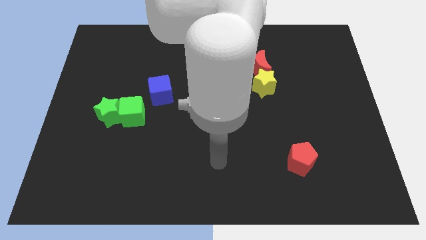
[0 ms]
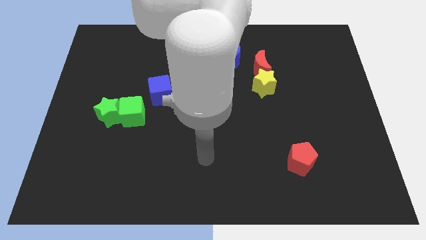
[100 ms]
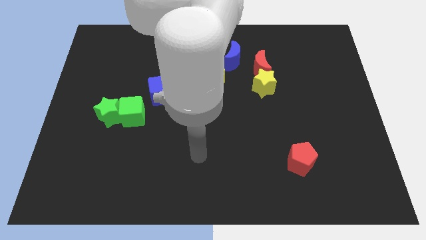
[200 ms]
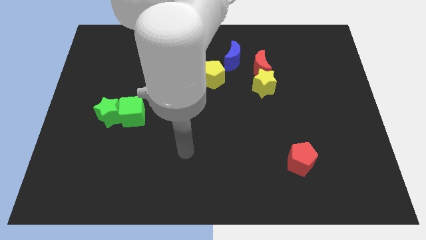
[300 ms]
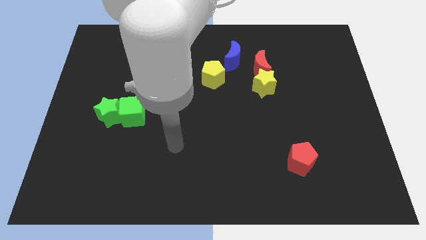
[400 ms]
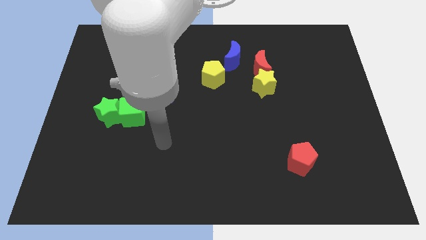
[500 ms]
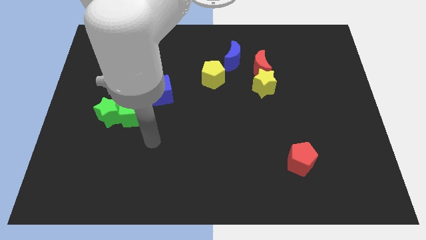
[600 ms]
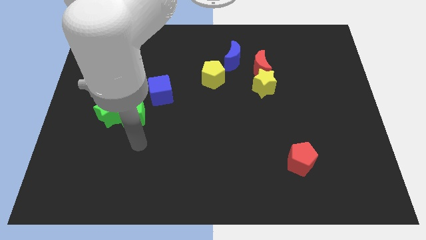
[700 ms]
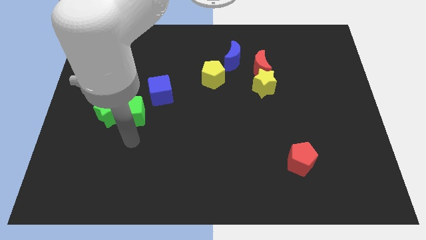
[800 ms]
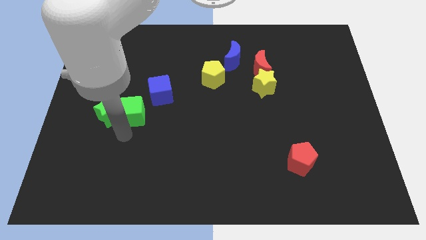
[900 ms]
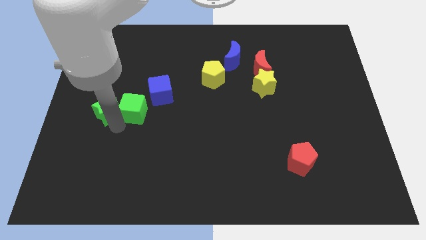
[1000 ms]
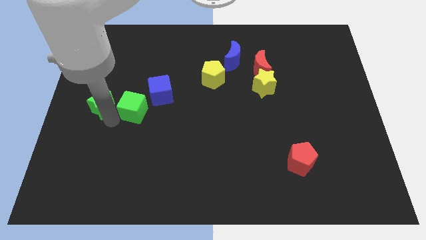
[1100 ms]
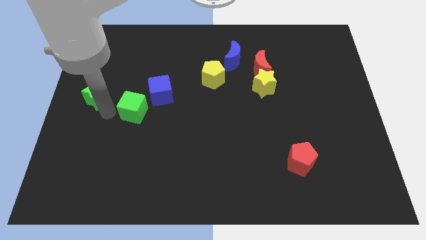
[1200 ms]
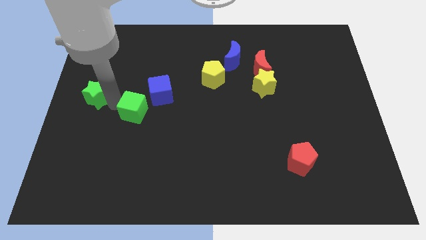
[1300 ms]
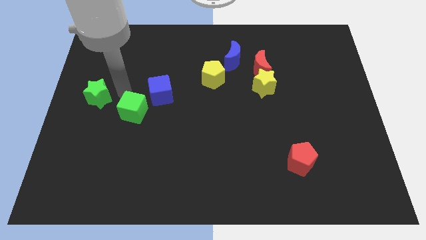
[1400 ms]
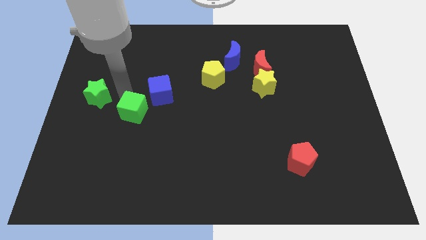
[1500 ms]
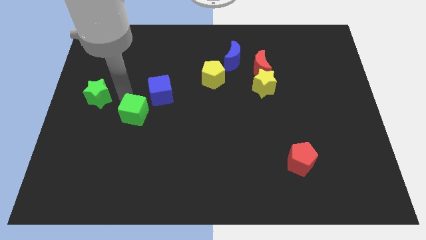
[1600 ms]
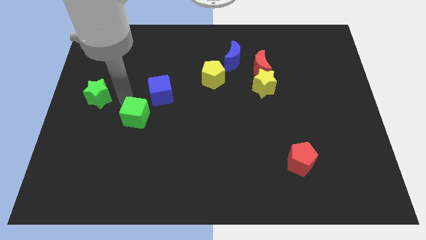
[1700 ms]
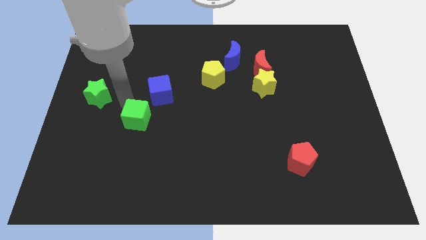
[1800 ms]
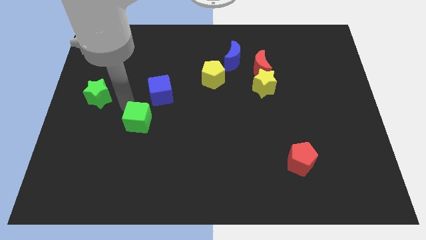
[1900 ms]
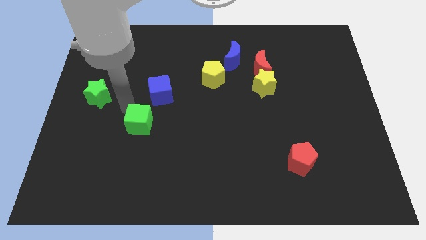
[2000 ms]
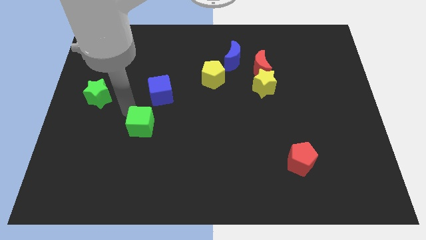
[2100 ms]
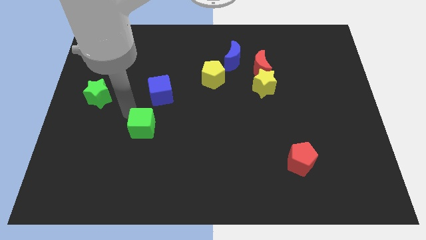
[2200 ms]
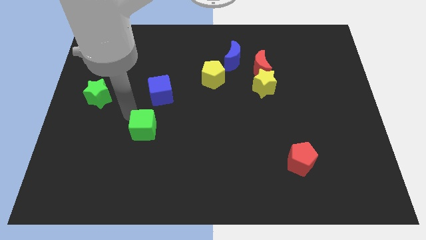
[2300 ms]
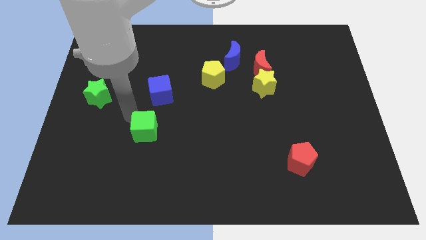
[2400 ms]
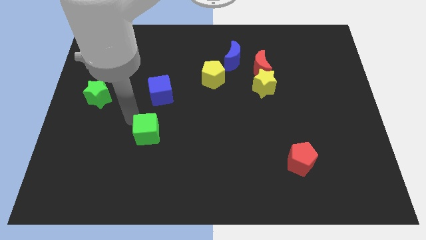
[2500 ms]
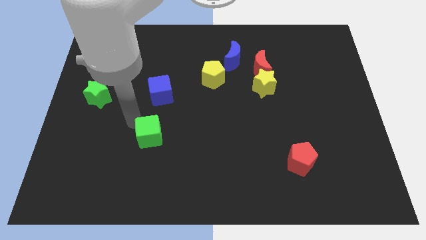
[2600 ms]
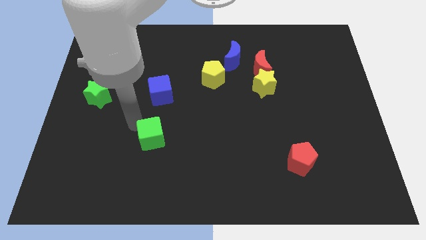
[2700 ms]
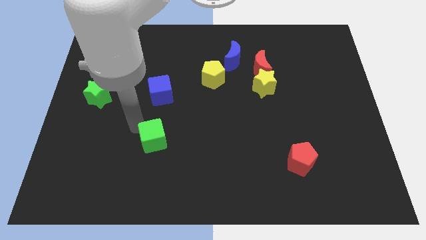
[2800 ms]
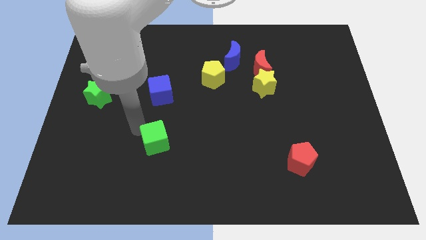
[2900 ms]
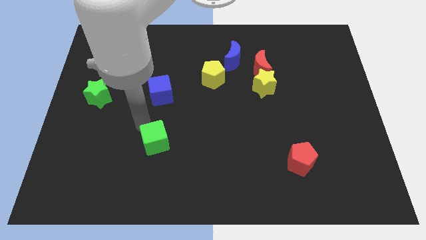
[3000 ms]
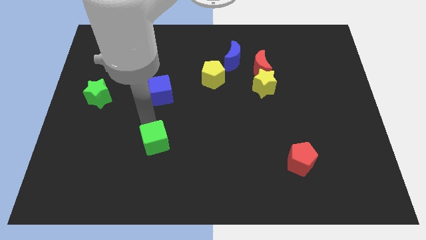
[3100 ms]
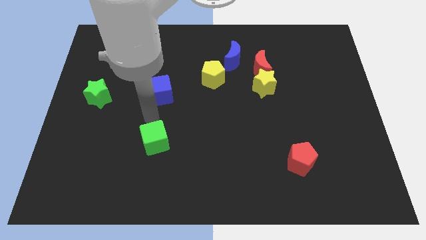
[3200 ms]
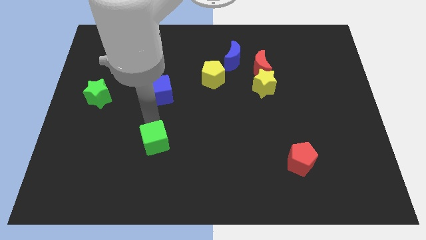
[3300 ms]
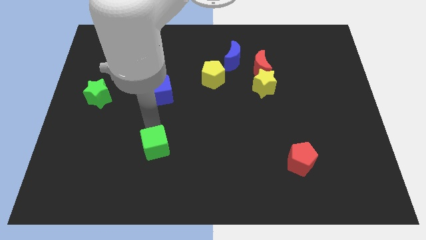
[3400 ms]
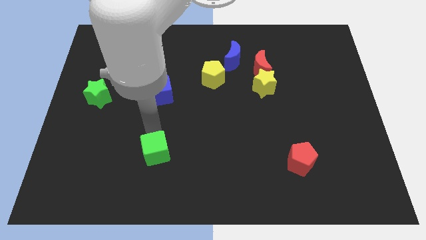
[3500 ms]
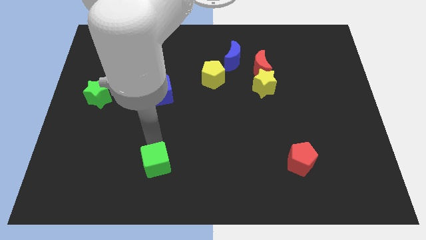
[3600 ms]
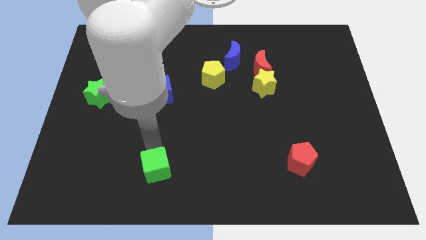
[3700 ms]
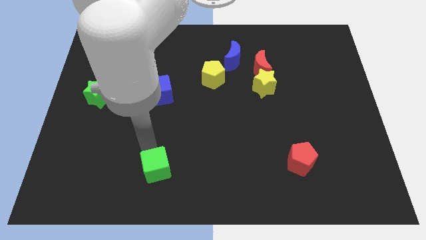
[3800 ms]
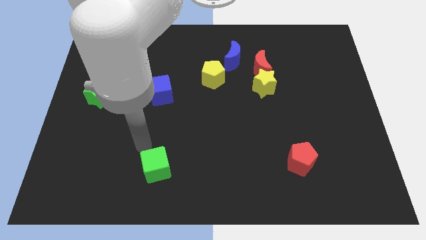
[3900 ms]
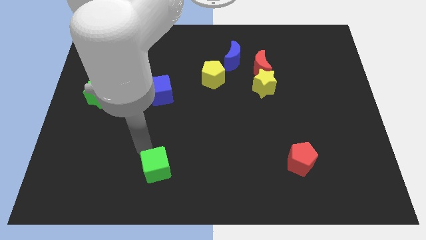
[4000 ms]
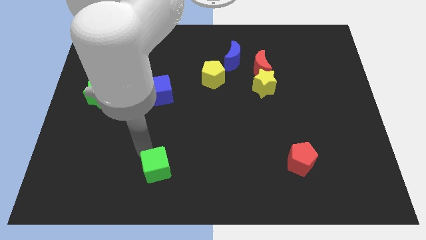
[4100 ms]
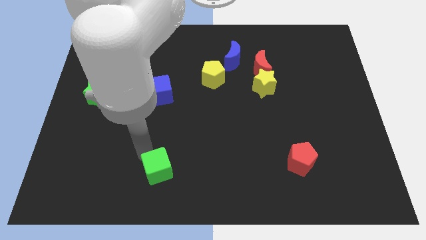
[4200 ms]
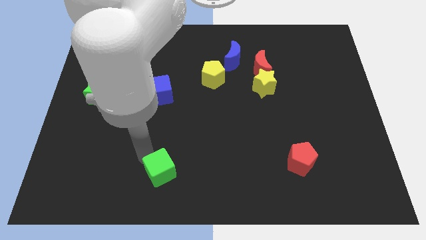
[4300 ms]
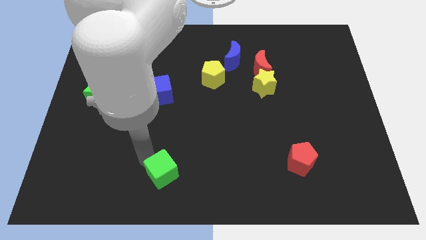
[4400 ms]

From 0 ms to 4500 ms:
slide the green cube to the bottom side

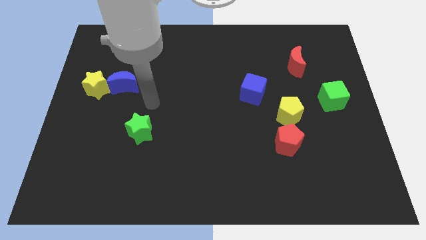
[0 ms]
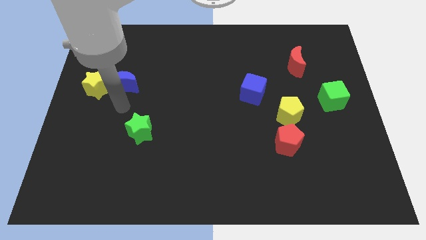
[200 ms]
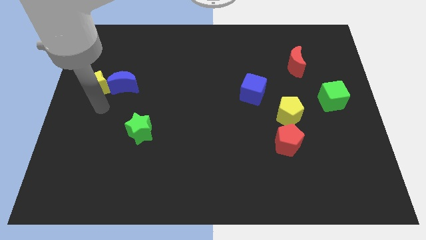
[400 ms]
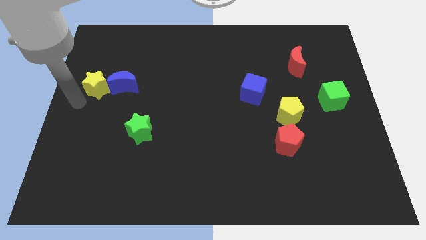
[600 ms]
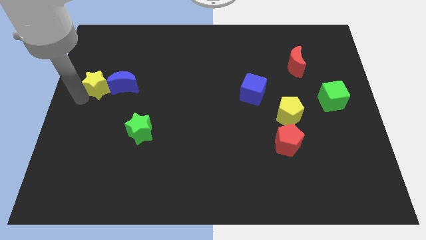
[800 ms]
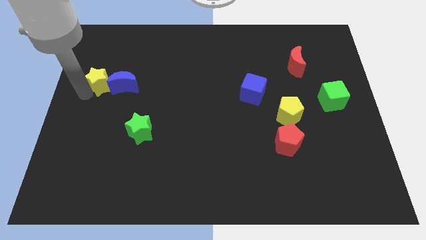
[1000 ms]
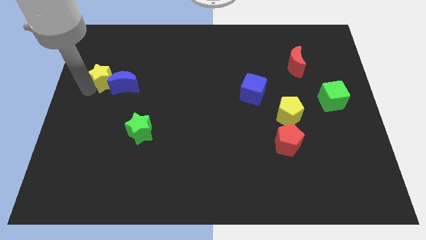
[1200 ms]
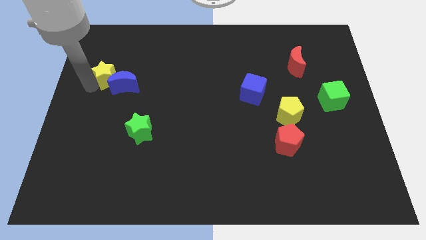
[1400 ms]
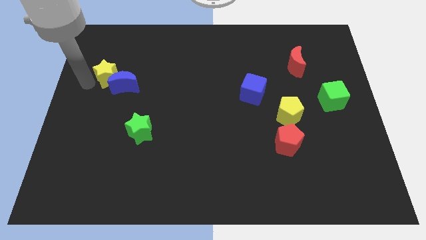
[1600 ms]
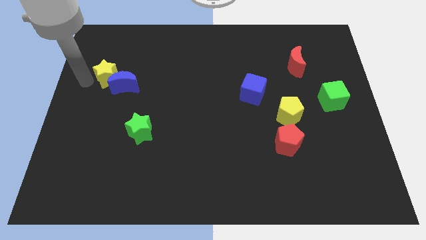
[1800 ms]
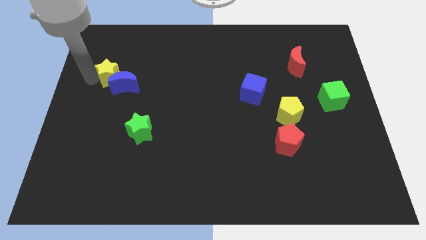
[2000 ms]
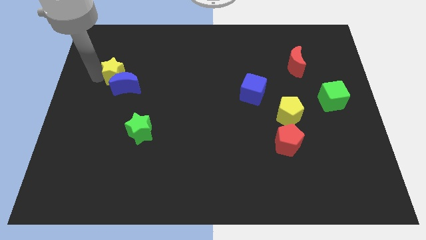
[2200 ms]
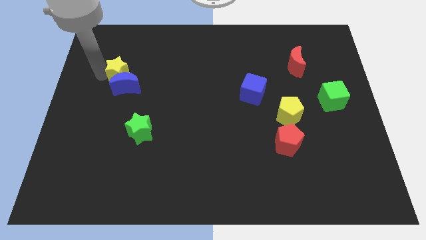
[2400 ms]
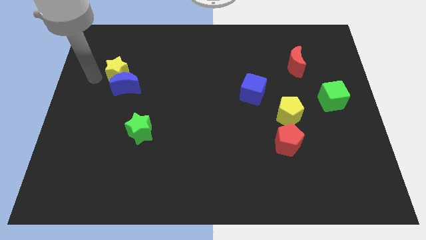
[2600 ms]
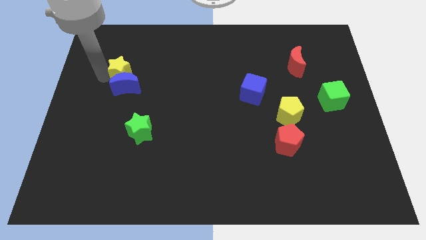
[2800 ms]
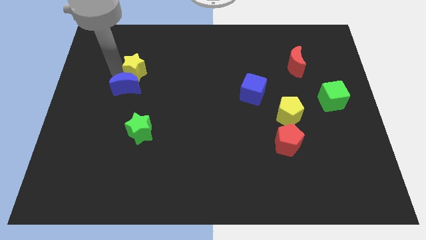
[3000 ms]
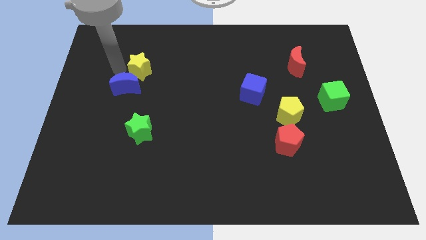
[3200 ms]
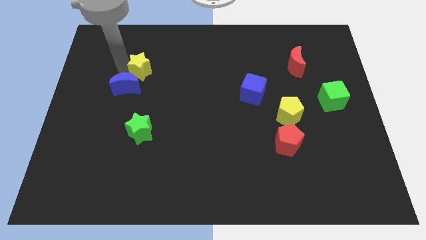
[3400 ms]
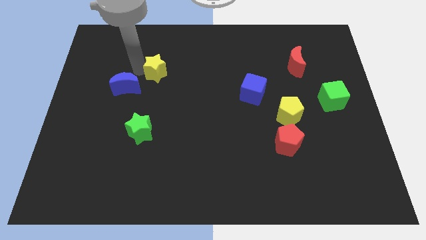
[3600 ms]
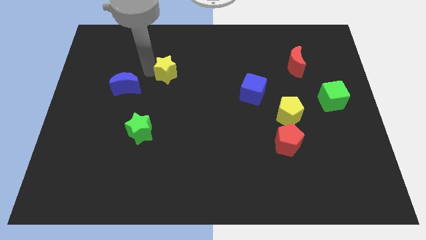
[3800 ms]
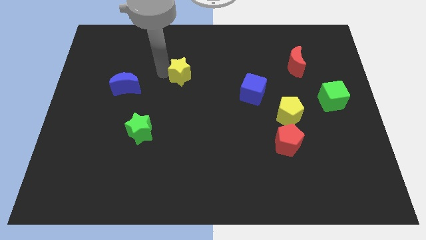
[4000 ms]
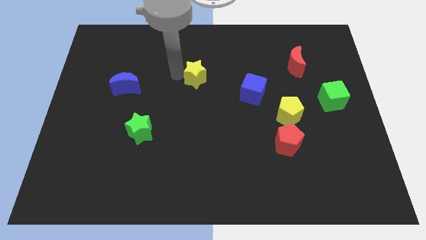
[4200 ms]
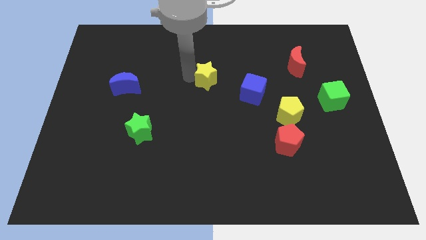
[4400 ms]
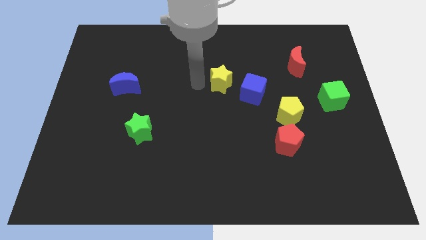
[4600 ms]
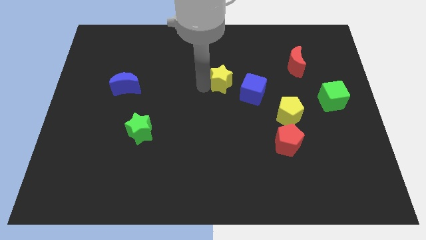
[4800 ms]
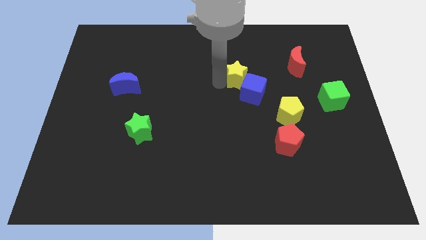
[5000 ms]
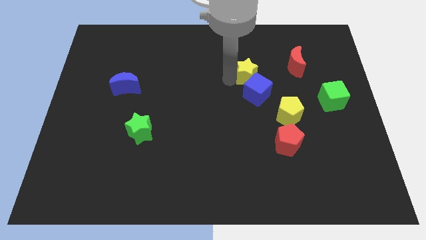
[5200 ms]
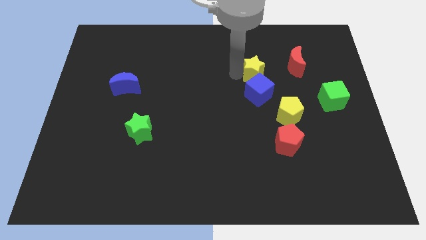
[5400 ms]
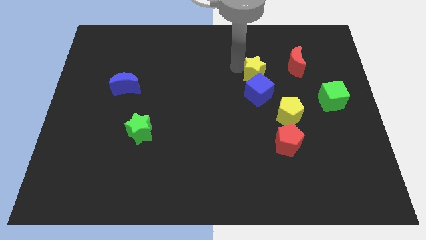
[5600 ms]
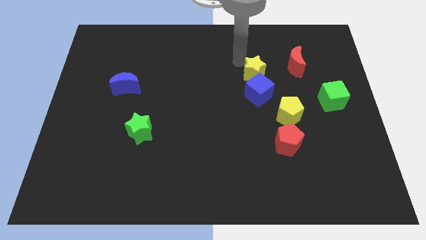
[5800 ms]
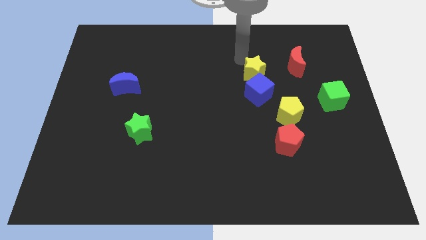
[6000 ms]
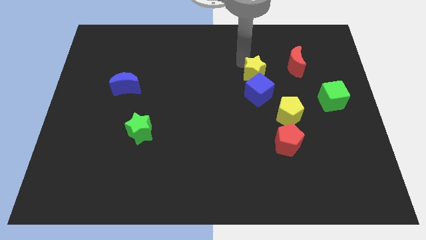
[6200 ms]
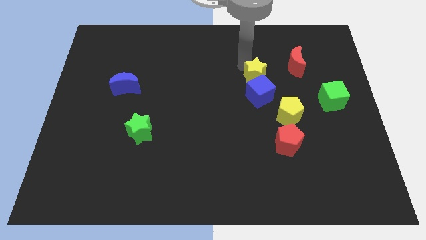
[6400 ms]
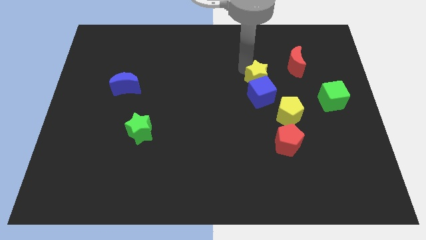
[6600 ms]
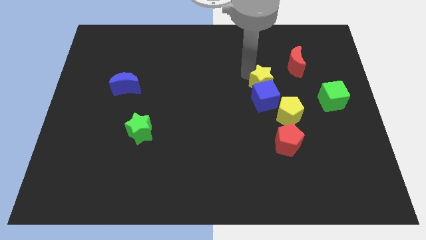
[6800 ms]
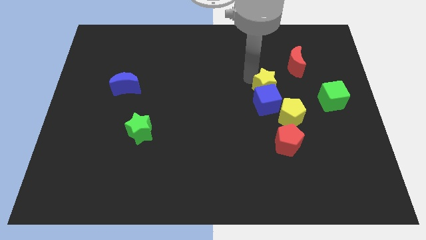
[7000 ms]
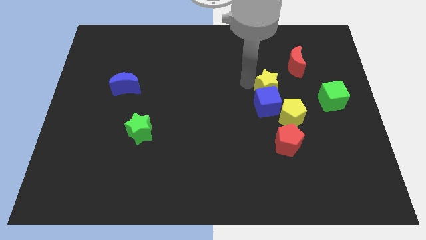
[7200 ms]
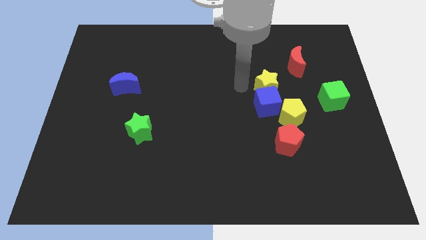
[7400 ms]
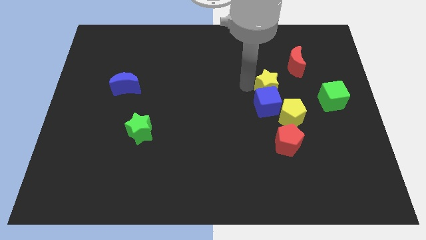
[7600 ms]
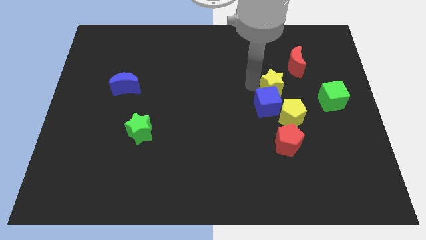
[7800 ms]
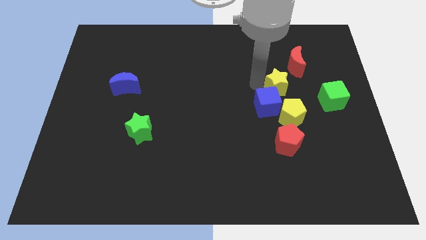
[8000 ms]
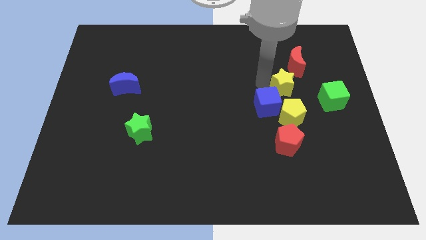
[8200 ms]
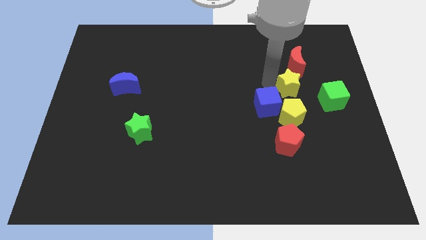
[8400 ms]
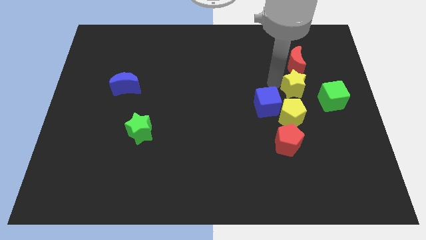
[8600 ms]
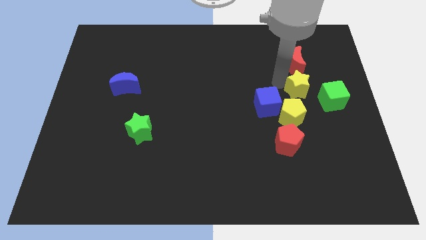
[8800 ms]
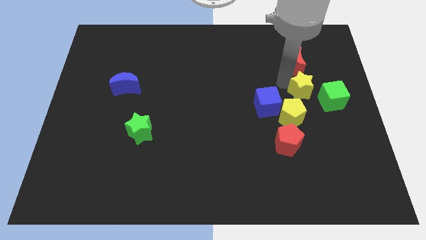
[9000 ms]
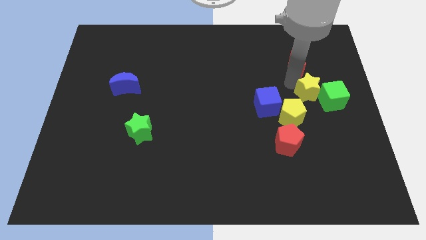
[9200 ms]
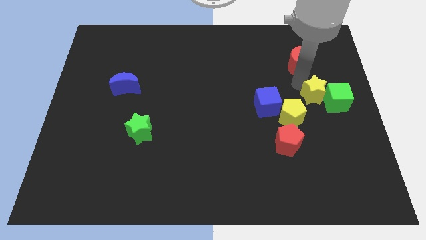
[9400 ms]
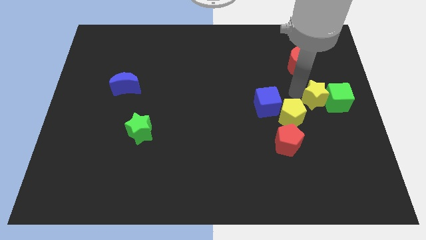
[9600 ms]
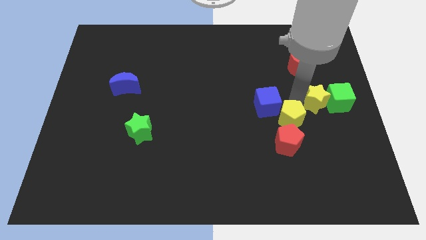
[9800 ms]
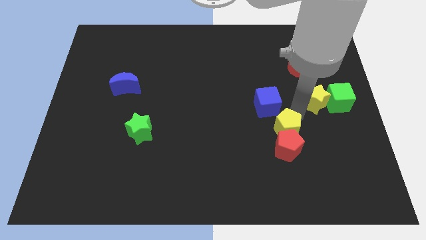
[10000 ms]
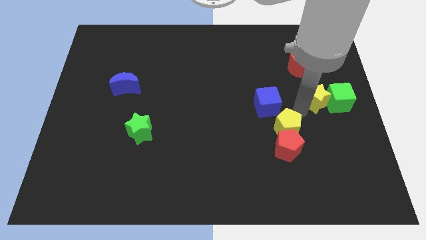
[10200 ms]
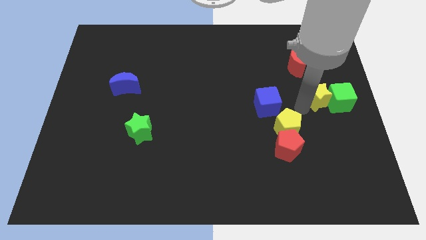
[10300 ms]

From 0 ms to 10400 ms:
move the yellow star to the right side
